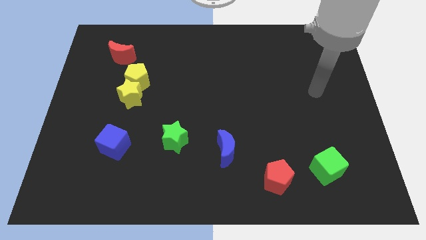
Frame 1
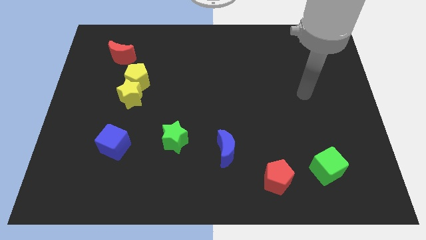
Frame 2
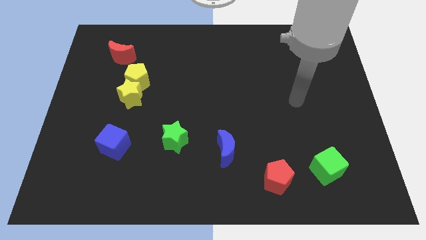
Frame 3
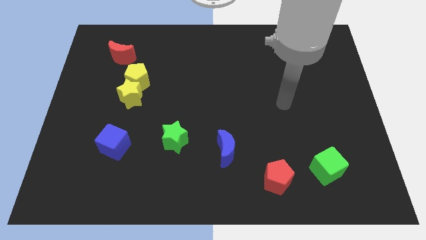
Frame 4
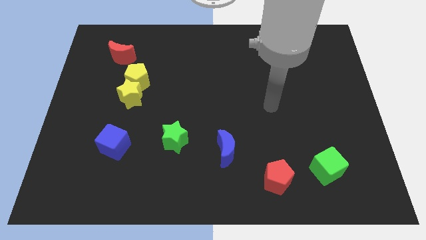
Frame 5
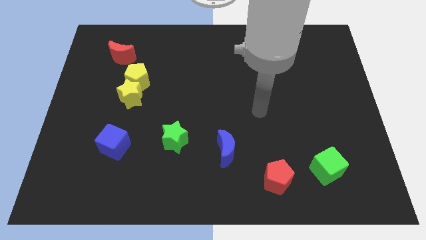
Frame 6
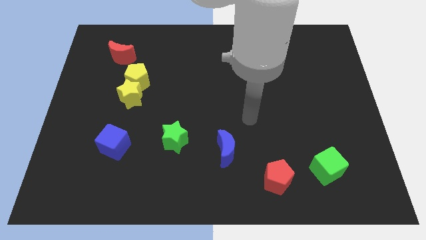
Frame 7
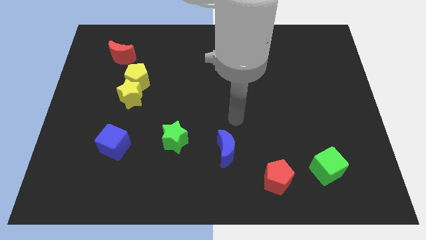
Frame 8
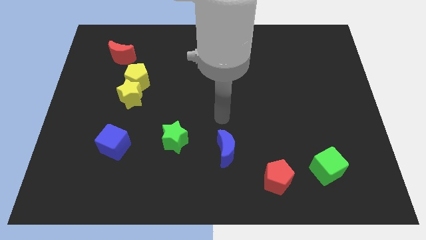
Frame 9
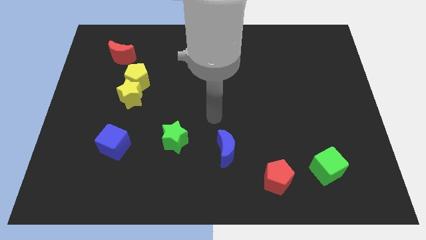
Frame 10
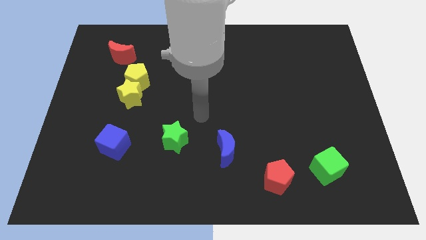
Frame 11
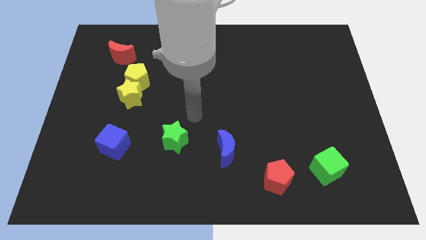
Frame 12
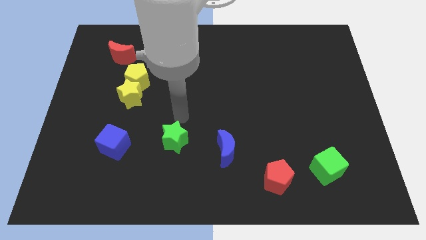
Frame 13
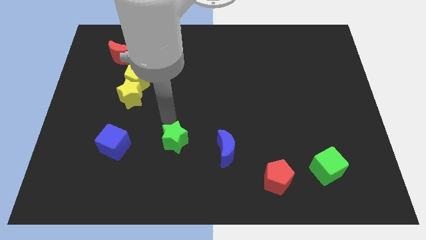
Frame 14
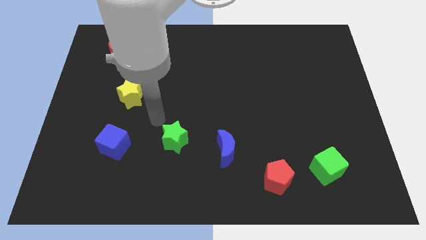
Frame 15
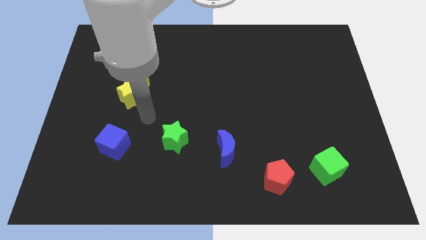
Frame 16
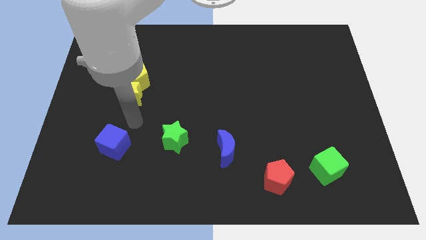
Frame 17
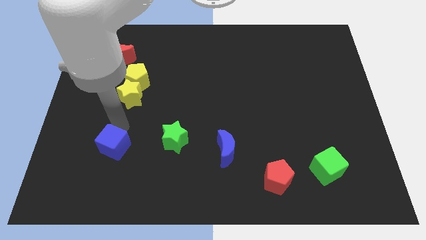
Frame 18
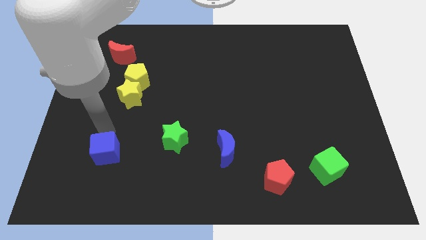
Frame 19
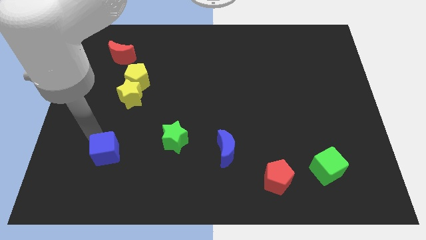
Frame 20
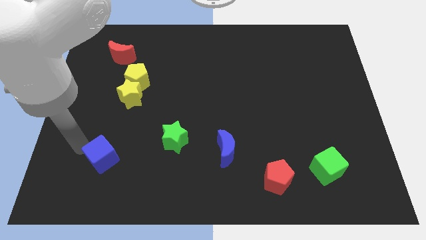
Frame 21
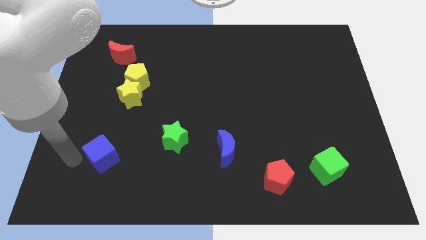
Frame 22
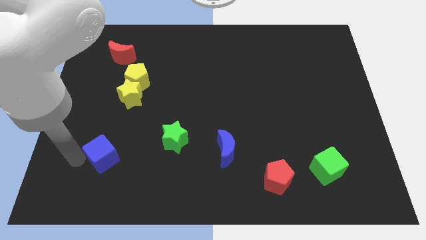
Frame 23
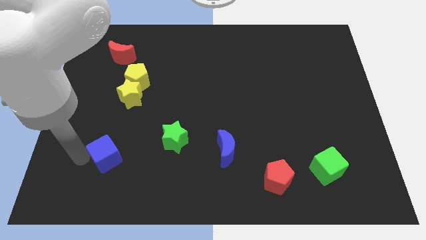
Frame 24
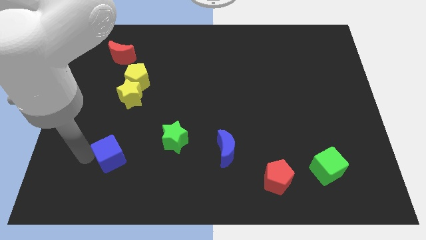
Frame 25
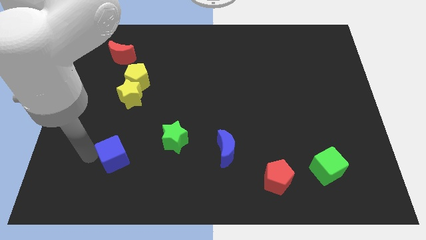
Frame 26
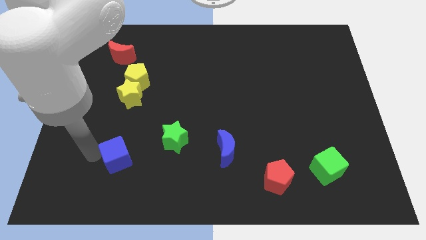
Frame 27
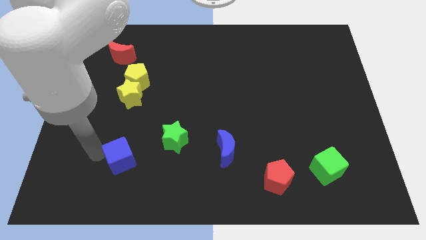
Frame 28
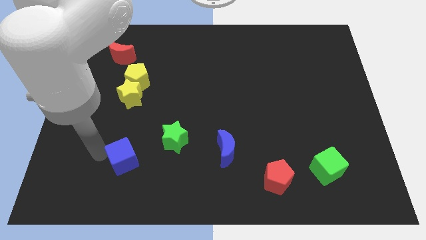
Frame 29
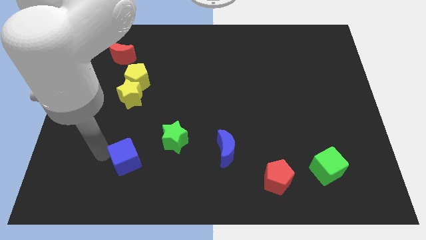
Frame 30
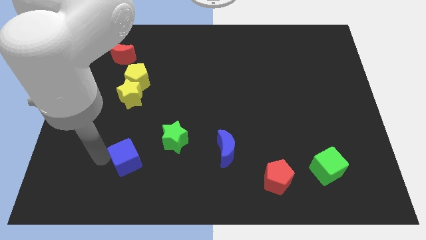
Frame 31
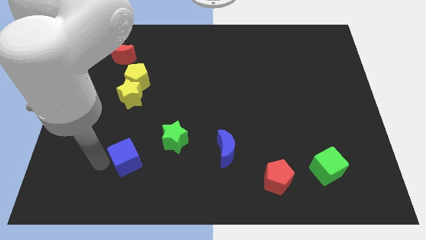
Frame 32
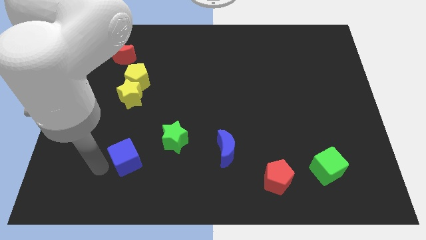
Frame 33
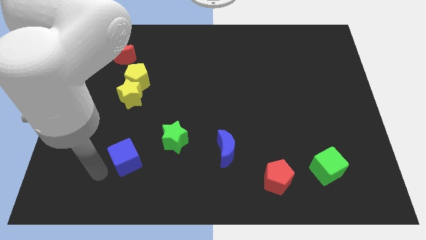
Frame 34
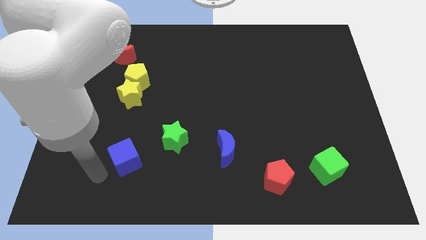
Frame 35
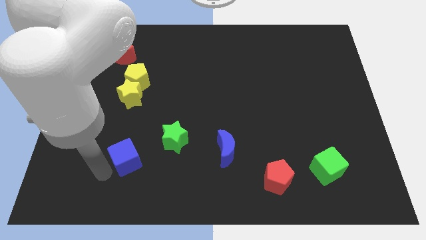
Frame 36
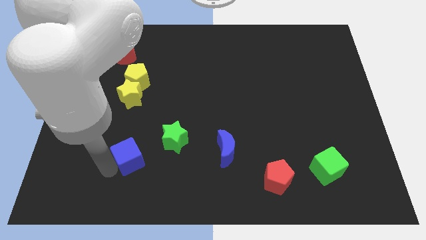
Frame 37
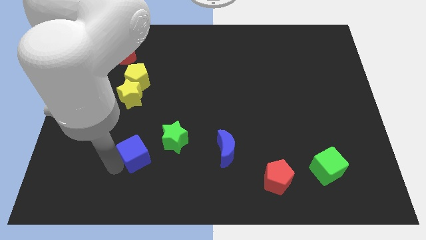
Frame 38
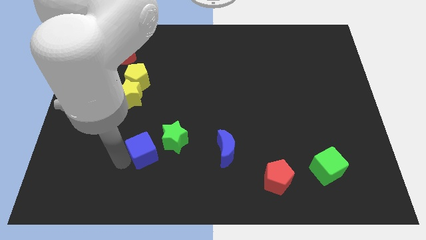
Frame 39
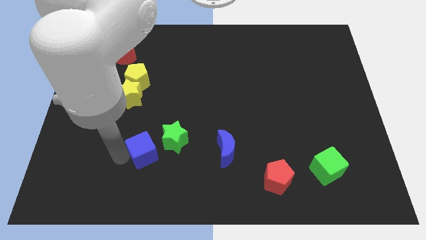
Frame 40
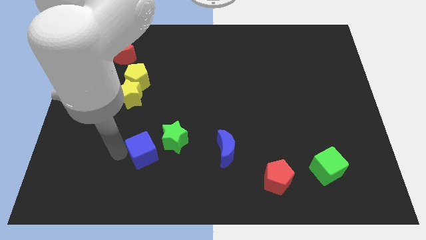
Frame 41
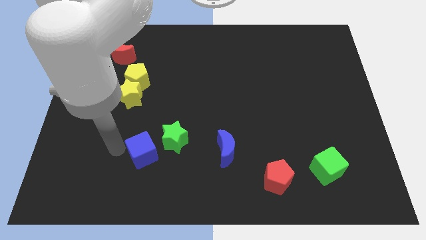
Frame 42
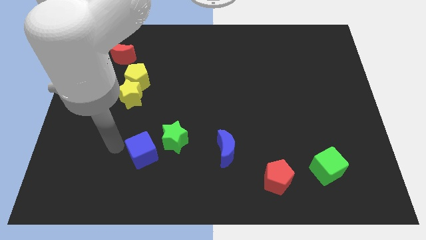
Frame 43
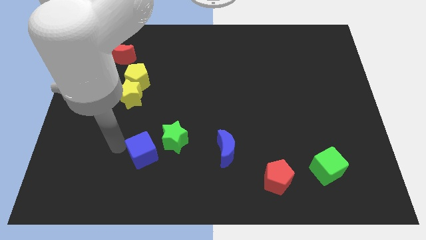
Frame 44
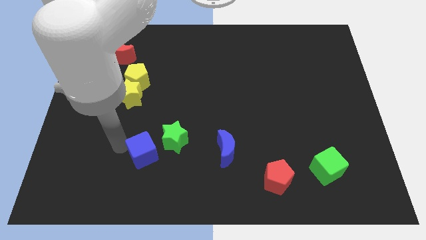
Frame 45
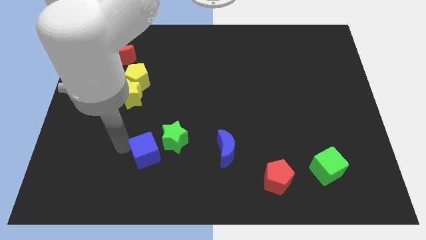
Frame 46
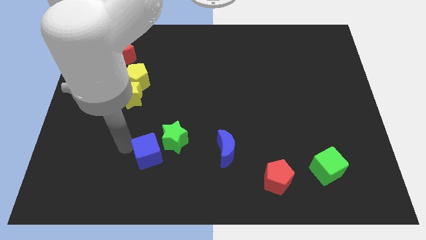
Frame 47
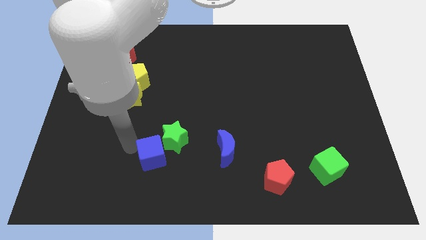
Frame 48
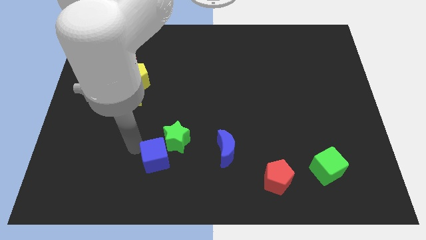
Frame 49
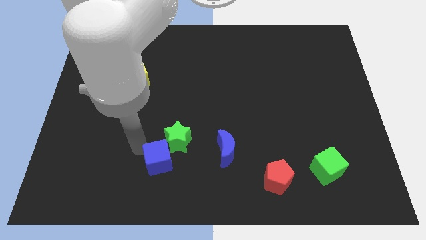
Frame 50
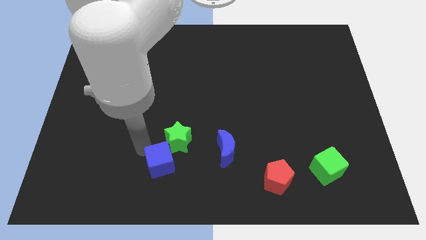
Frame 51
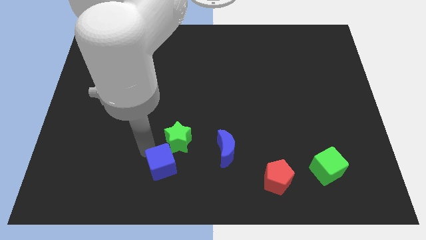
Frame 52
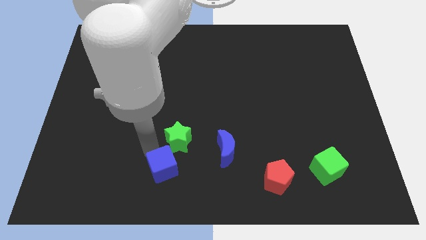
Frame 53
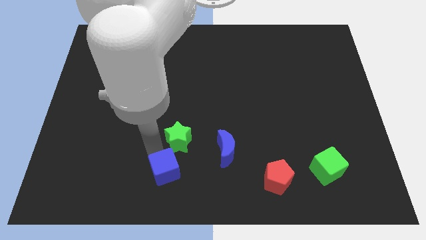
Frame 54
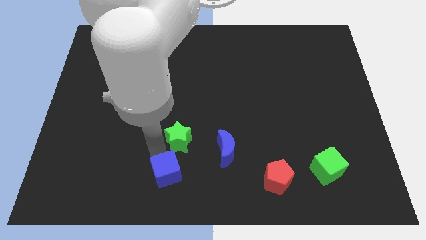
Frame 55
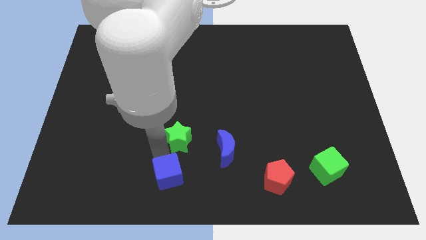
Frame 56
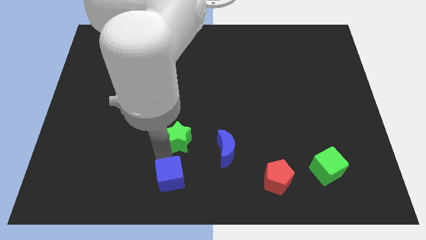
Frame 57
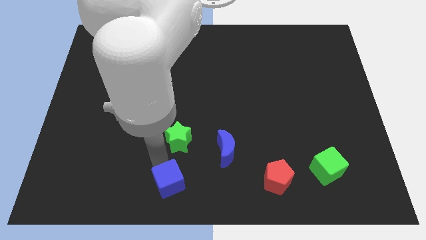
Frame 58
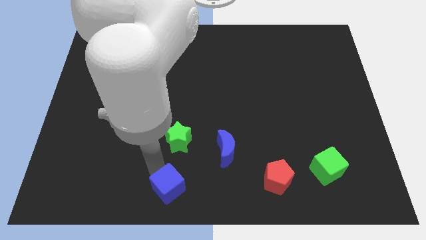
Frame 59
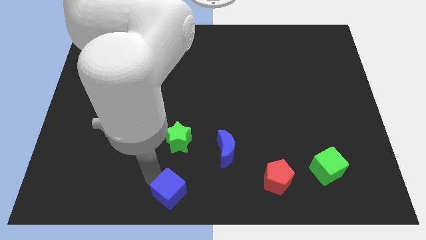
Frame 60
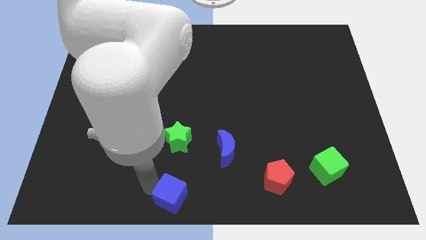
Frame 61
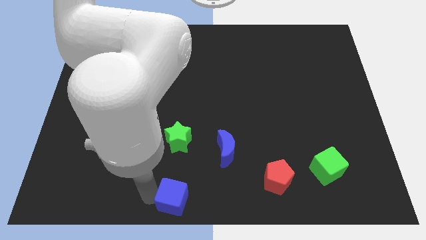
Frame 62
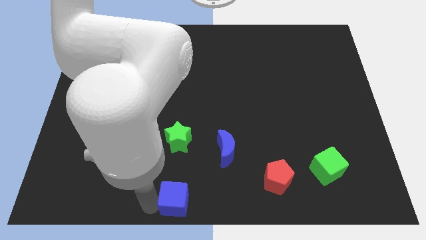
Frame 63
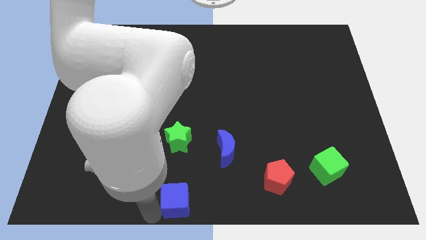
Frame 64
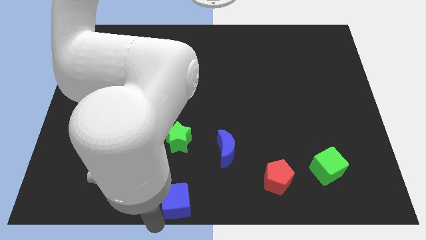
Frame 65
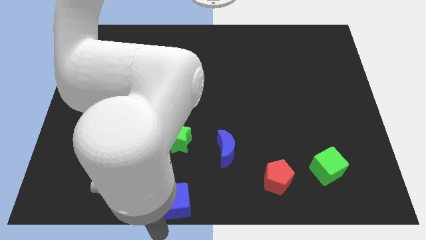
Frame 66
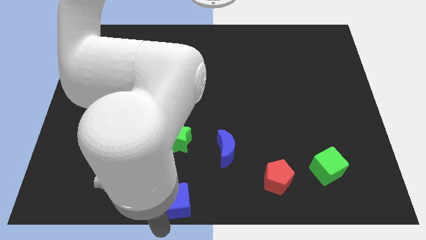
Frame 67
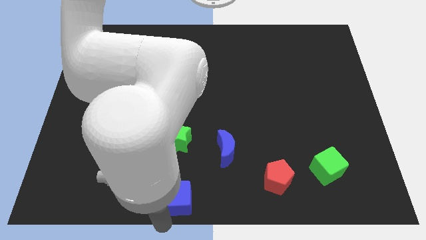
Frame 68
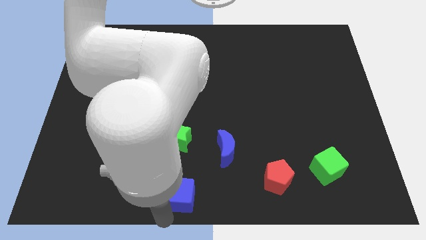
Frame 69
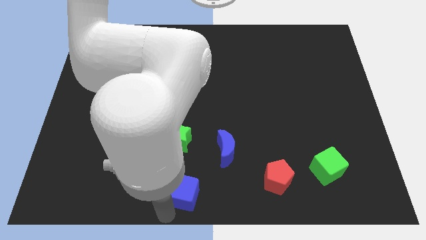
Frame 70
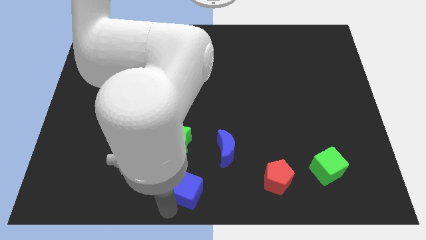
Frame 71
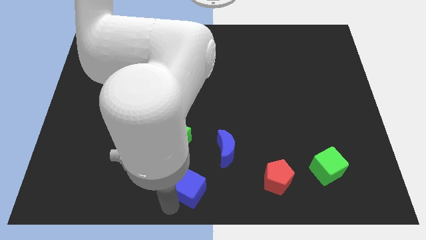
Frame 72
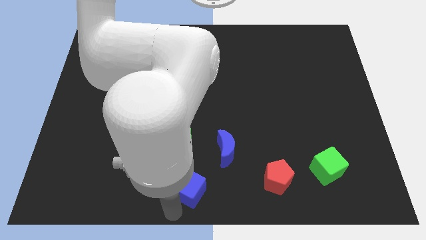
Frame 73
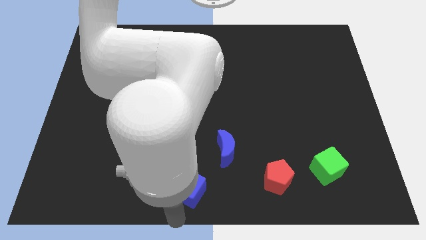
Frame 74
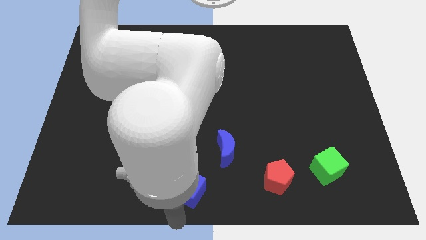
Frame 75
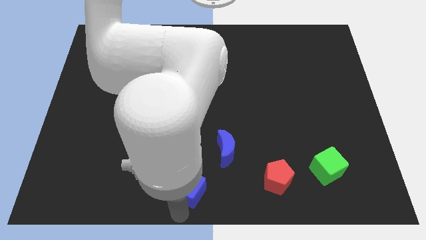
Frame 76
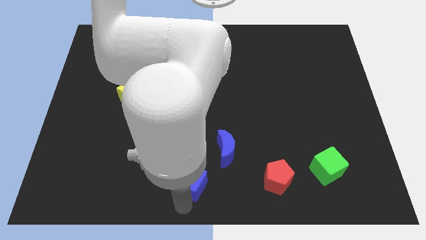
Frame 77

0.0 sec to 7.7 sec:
put the blue cube to the bottom right side of the green star
